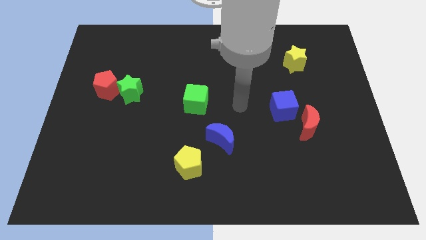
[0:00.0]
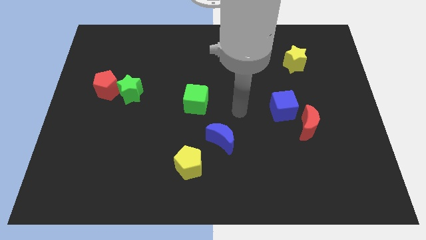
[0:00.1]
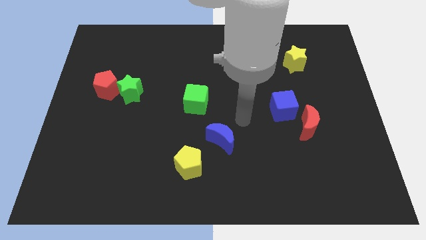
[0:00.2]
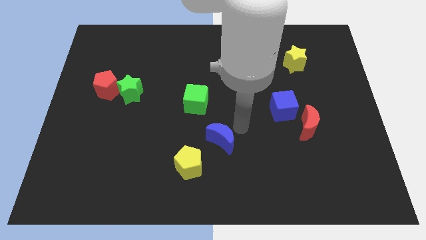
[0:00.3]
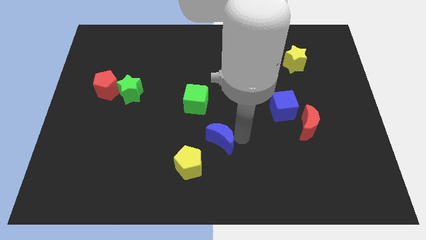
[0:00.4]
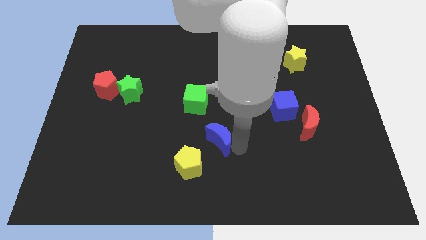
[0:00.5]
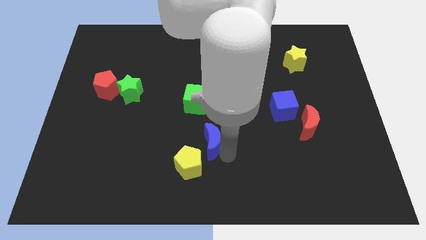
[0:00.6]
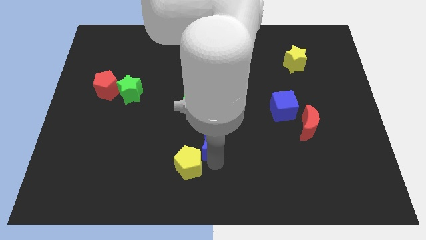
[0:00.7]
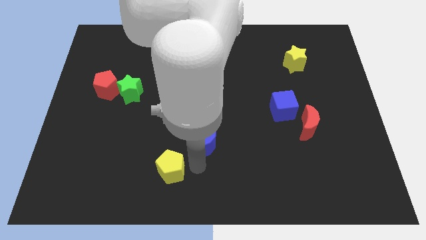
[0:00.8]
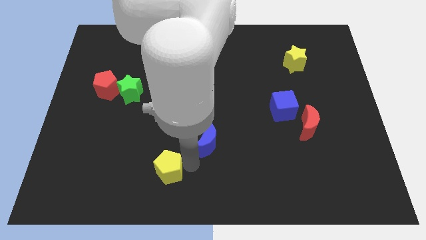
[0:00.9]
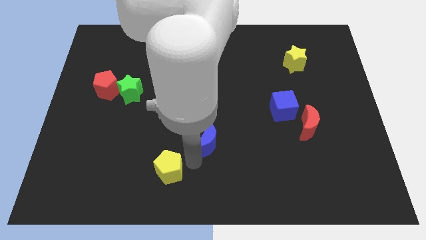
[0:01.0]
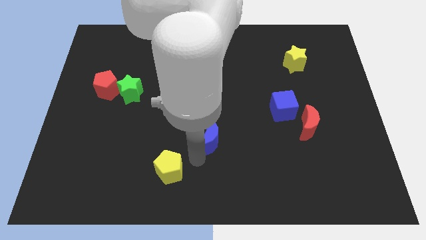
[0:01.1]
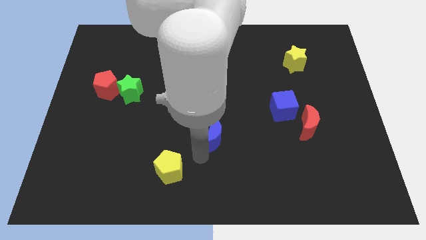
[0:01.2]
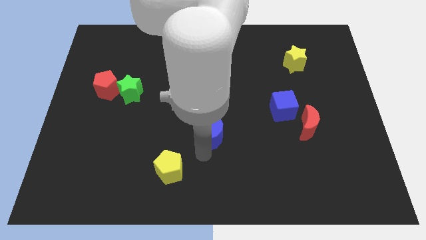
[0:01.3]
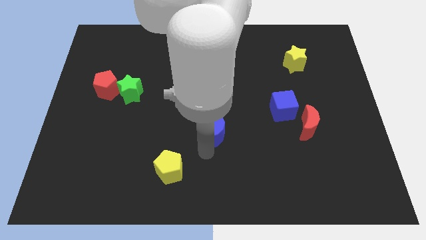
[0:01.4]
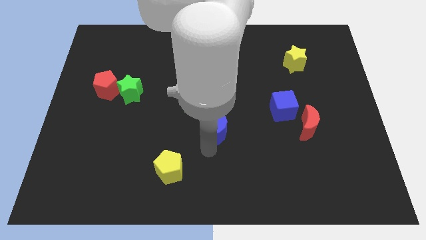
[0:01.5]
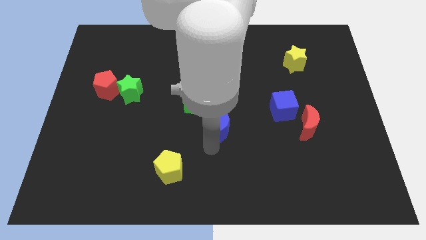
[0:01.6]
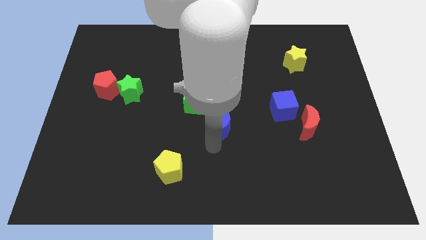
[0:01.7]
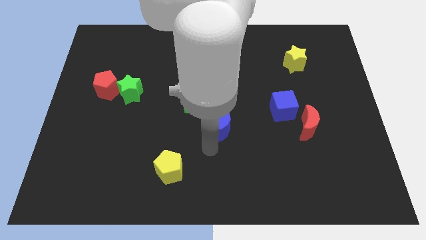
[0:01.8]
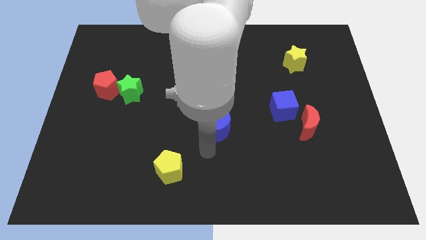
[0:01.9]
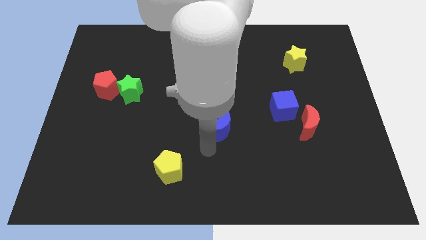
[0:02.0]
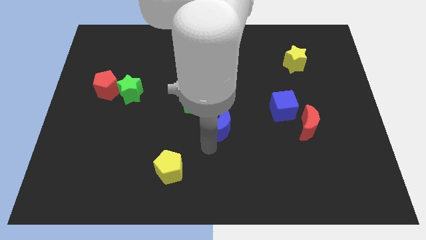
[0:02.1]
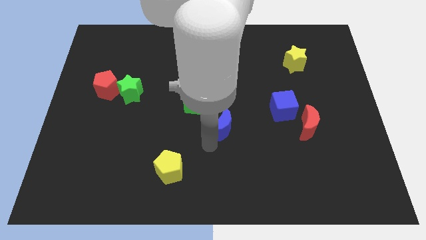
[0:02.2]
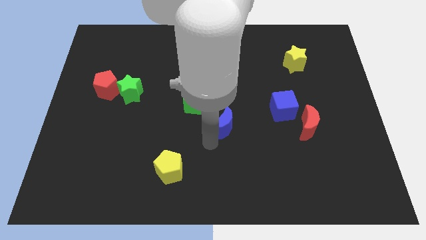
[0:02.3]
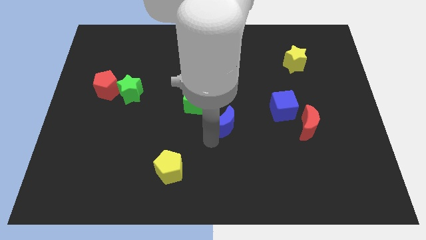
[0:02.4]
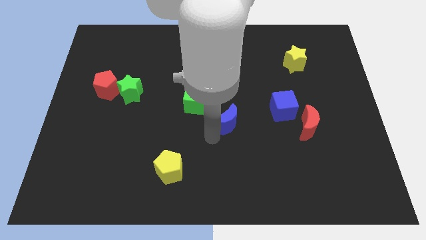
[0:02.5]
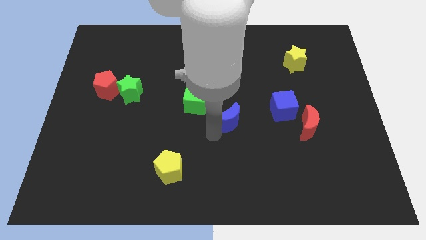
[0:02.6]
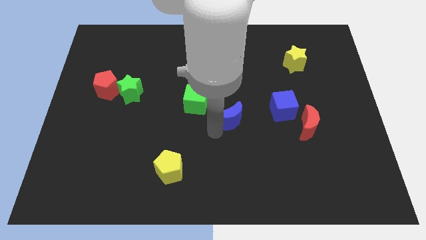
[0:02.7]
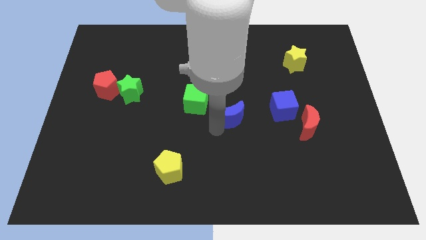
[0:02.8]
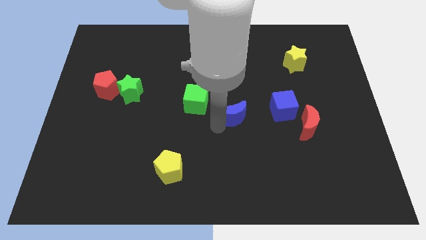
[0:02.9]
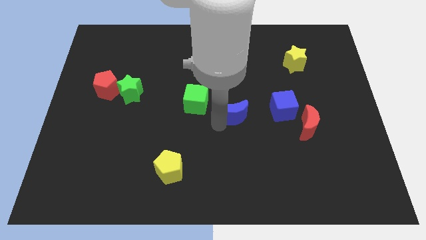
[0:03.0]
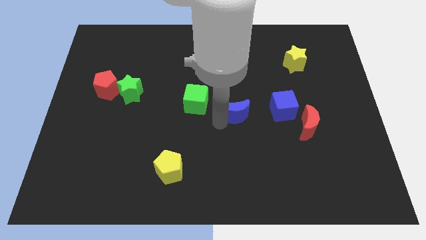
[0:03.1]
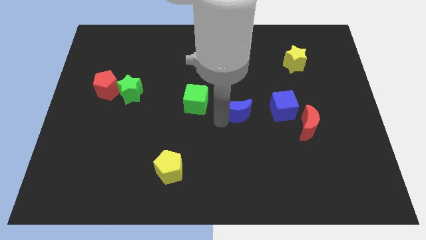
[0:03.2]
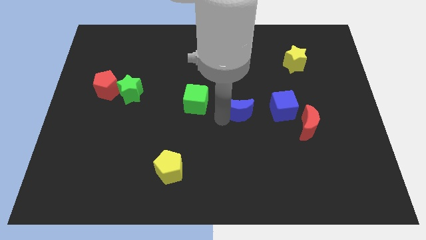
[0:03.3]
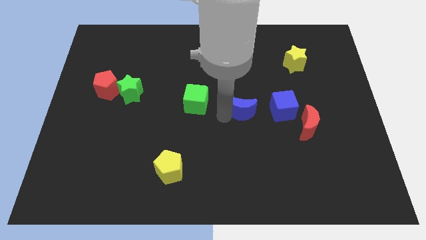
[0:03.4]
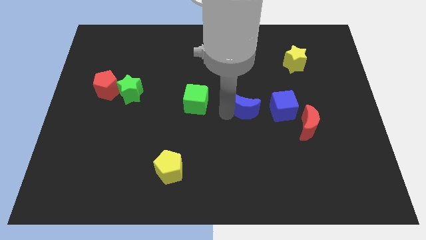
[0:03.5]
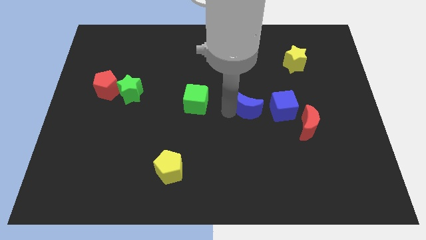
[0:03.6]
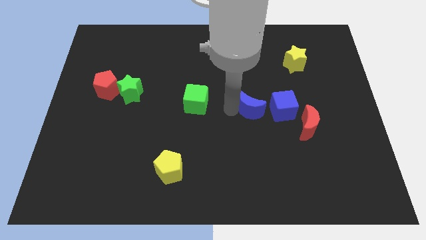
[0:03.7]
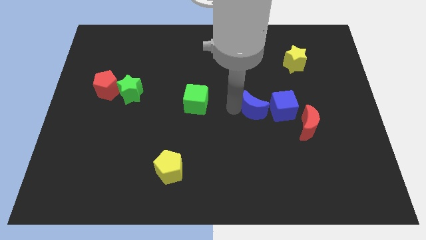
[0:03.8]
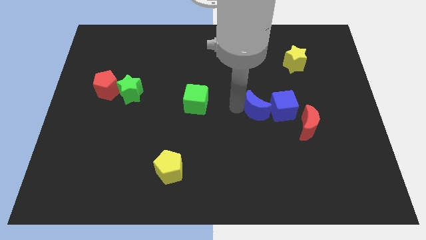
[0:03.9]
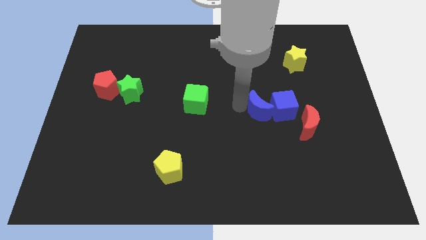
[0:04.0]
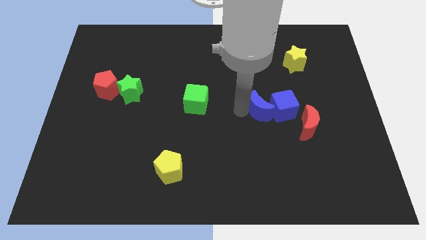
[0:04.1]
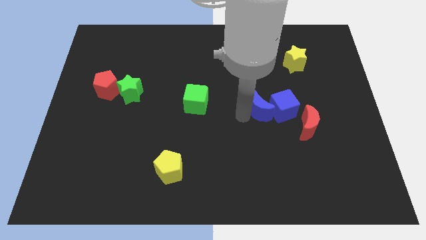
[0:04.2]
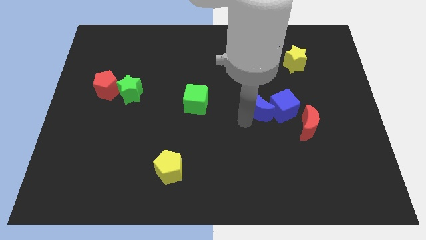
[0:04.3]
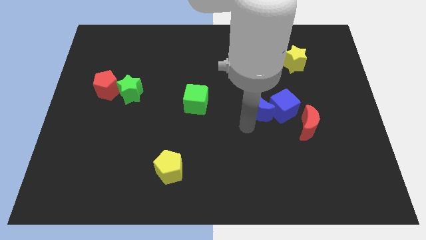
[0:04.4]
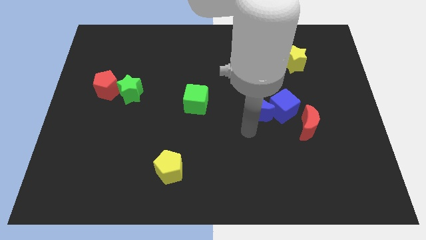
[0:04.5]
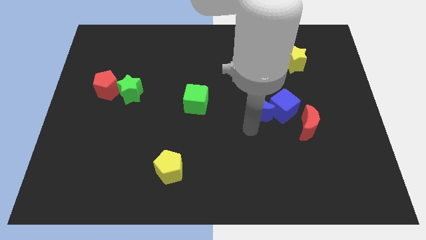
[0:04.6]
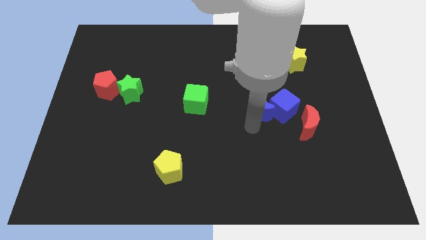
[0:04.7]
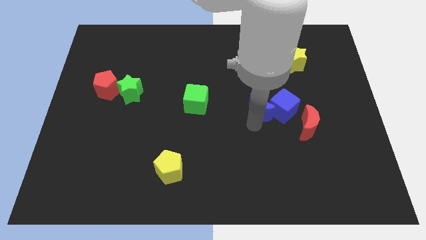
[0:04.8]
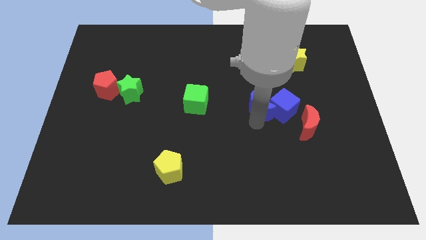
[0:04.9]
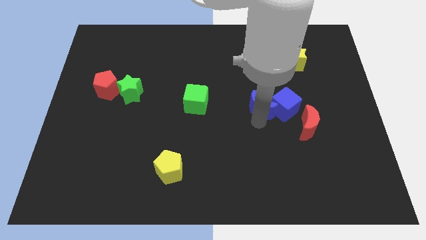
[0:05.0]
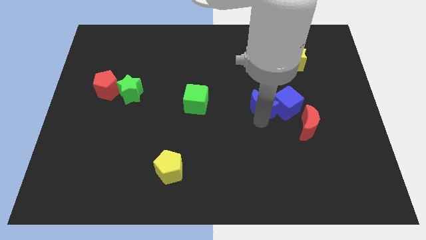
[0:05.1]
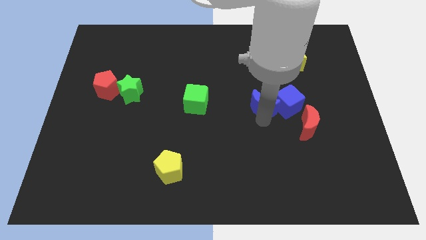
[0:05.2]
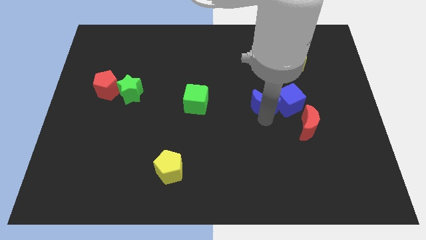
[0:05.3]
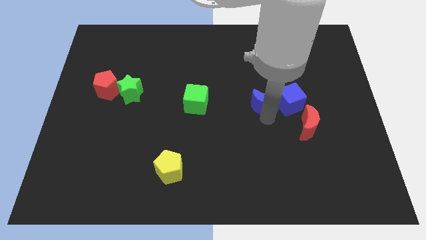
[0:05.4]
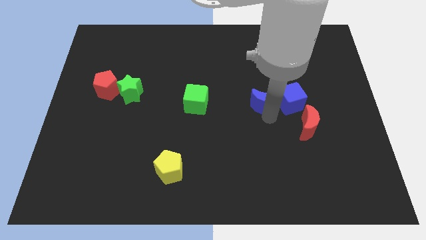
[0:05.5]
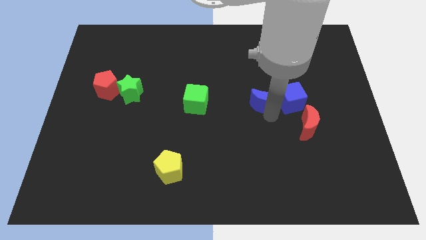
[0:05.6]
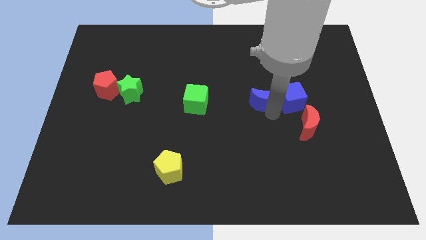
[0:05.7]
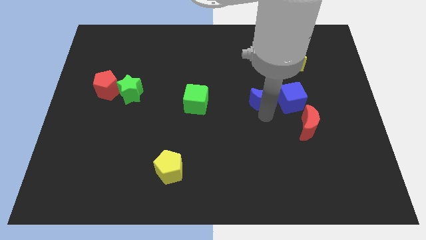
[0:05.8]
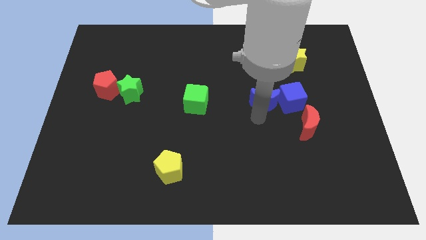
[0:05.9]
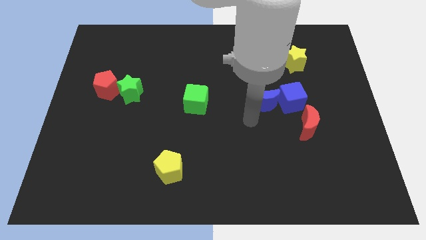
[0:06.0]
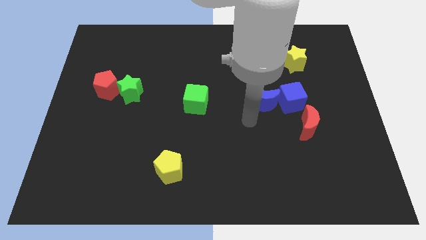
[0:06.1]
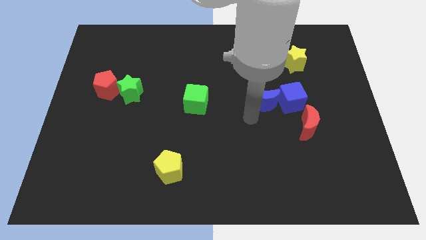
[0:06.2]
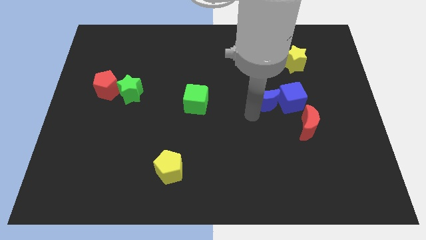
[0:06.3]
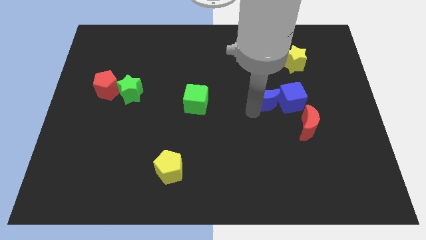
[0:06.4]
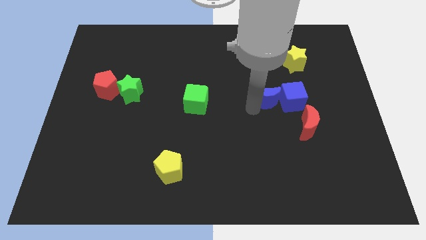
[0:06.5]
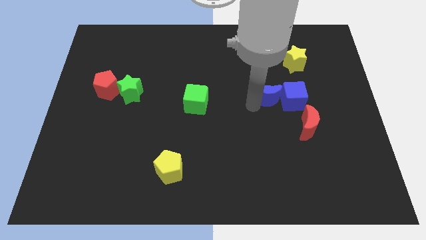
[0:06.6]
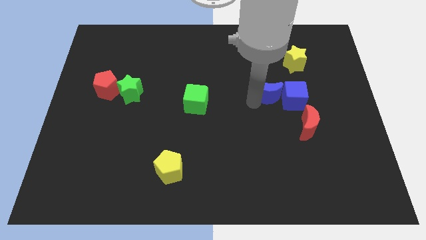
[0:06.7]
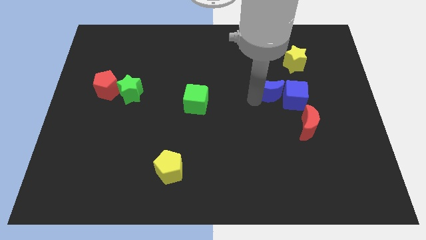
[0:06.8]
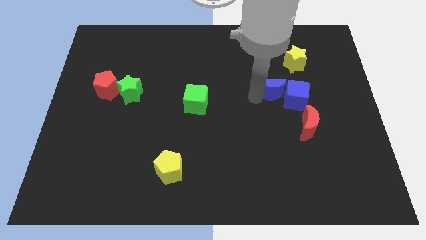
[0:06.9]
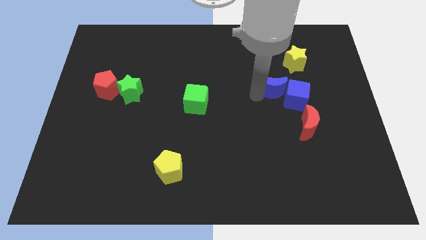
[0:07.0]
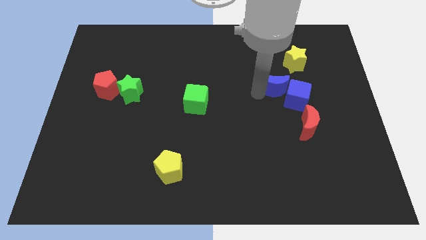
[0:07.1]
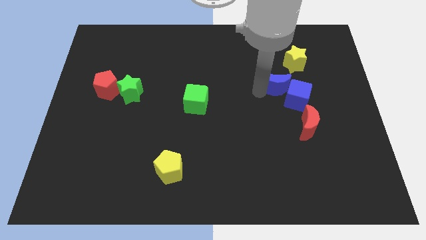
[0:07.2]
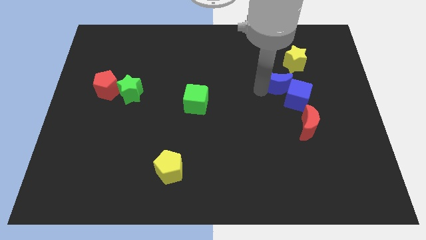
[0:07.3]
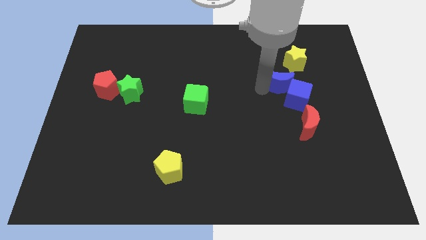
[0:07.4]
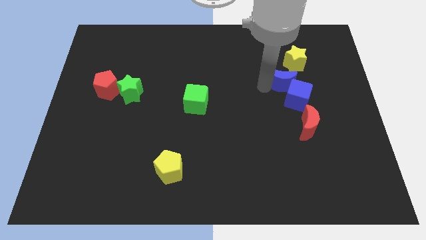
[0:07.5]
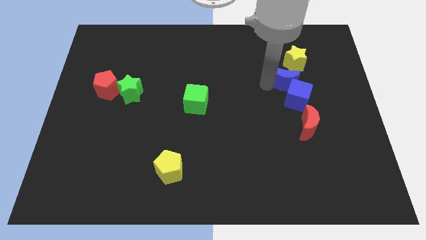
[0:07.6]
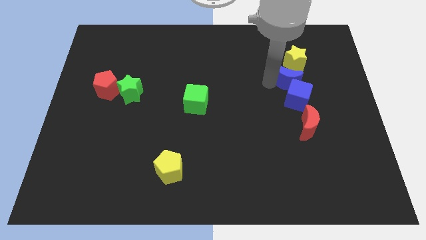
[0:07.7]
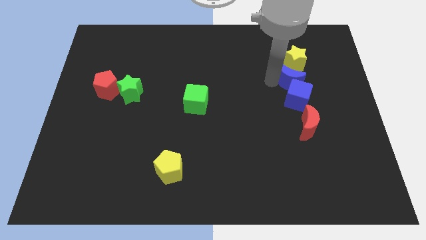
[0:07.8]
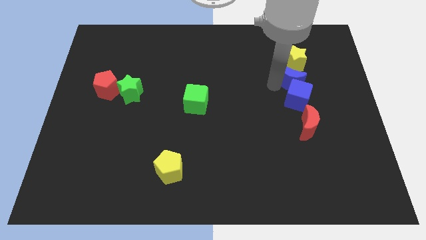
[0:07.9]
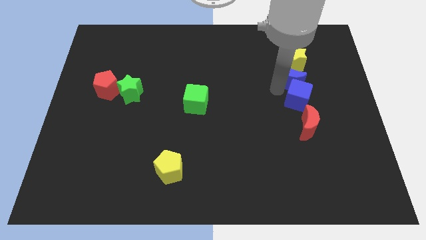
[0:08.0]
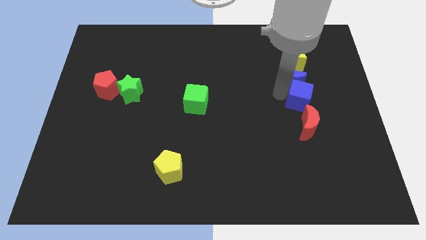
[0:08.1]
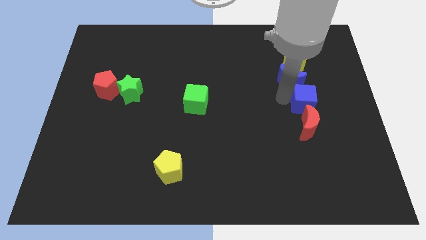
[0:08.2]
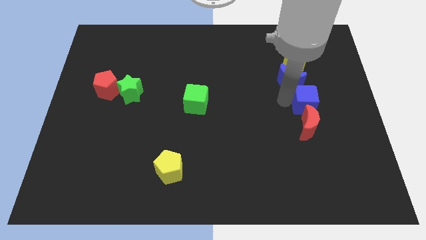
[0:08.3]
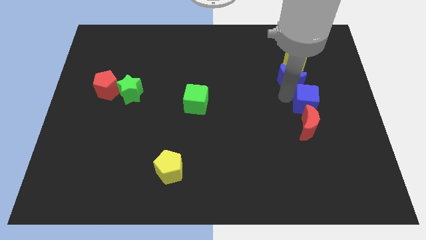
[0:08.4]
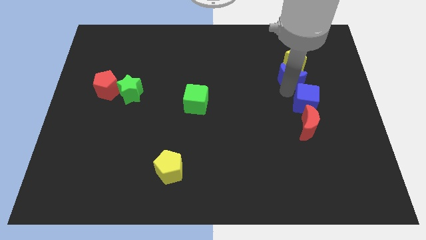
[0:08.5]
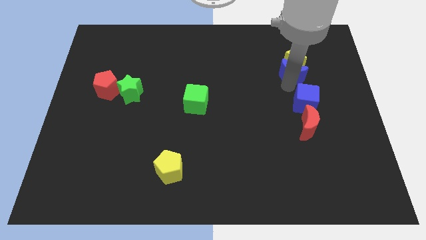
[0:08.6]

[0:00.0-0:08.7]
push the blue moon to the yellow star
